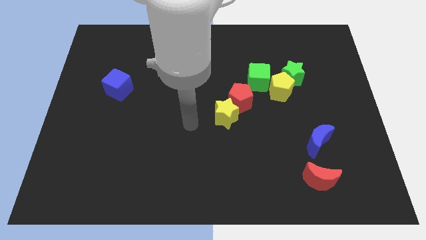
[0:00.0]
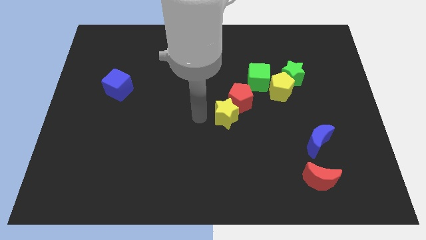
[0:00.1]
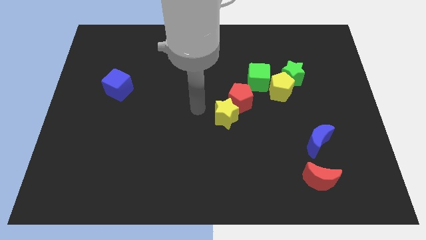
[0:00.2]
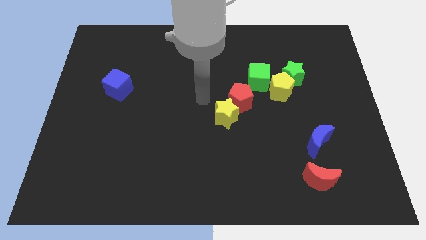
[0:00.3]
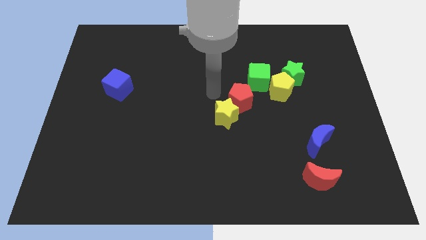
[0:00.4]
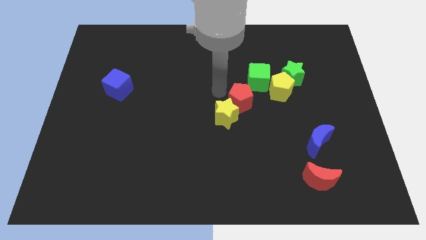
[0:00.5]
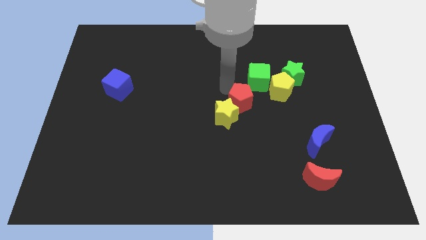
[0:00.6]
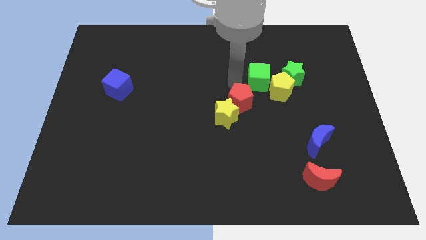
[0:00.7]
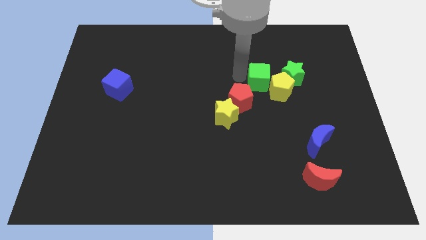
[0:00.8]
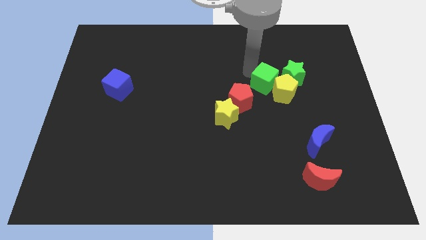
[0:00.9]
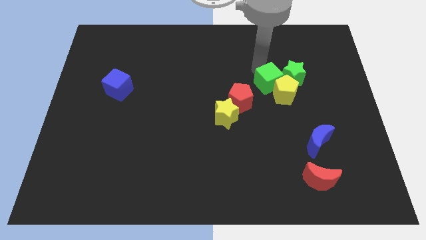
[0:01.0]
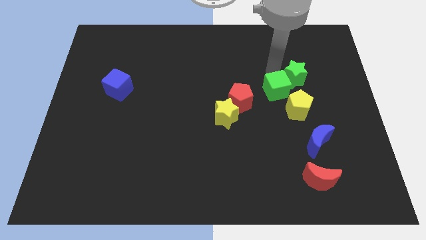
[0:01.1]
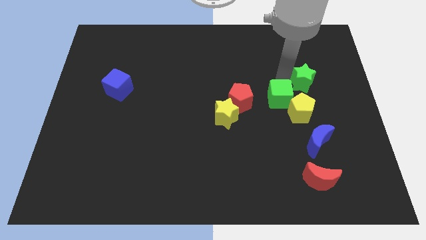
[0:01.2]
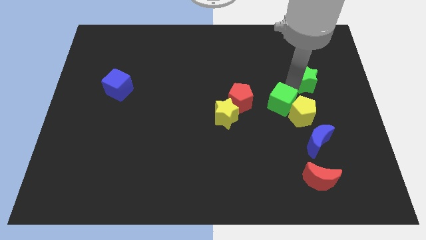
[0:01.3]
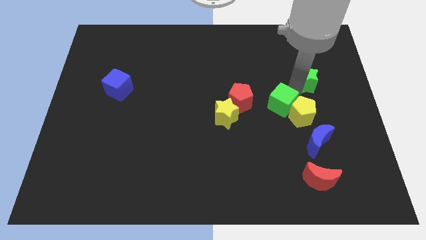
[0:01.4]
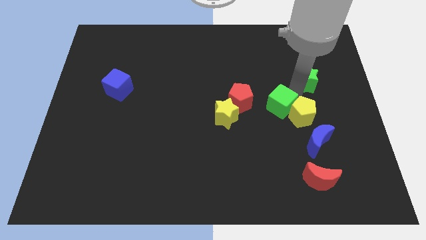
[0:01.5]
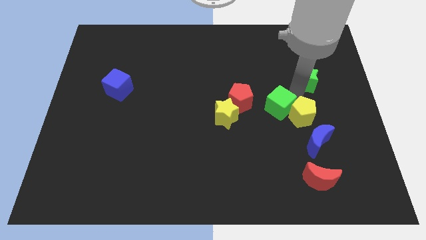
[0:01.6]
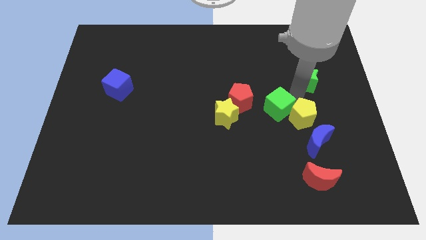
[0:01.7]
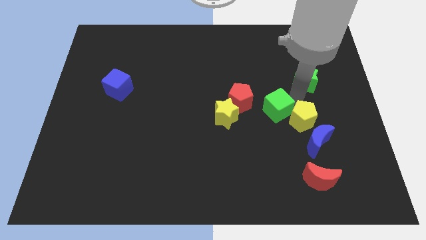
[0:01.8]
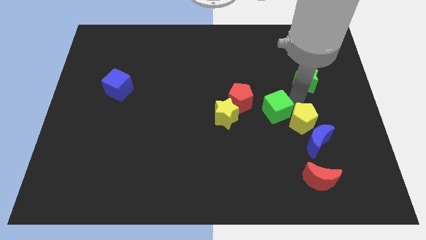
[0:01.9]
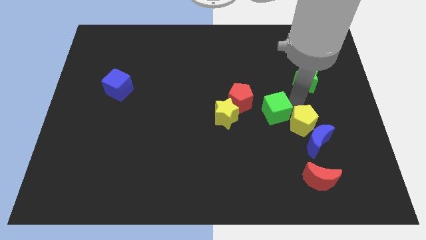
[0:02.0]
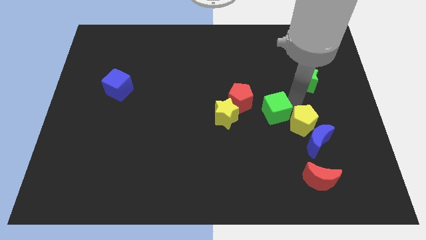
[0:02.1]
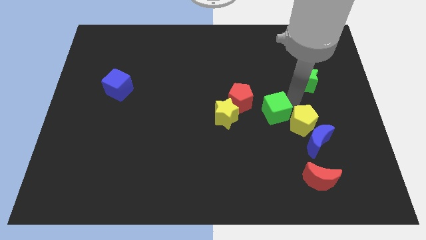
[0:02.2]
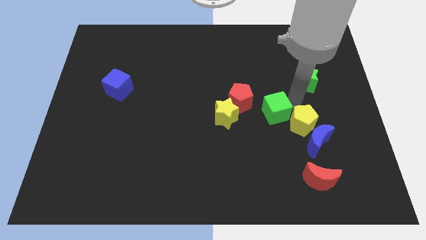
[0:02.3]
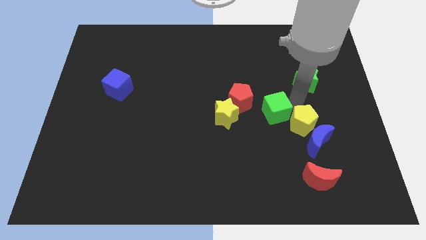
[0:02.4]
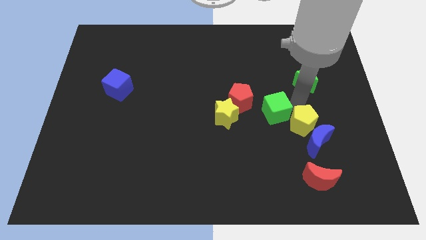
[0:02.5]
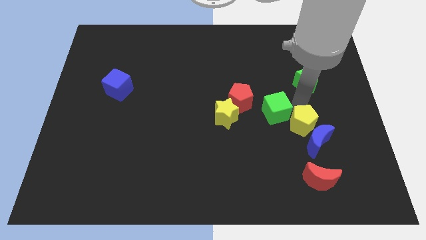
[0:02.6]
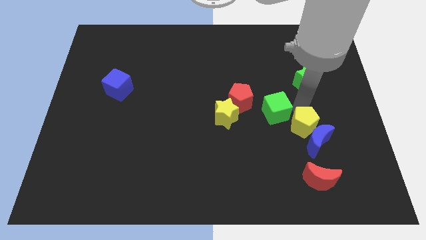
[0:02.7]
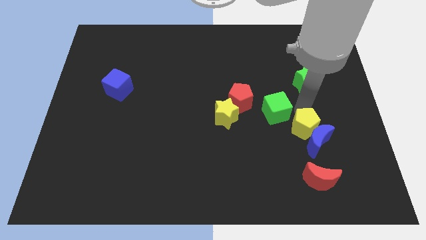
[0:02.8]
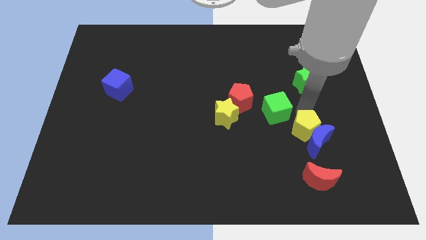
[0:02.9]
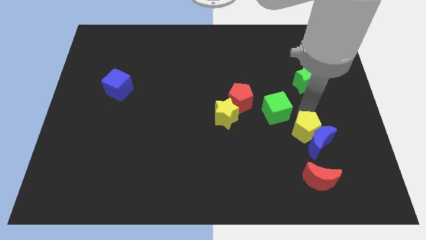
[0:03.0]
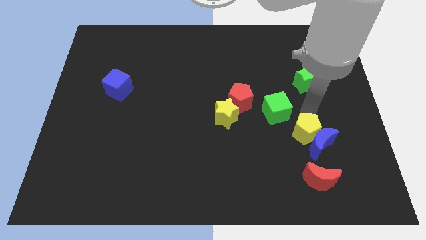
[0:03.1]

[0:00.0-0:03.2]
pull the yellow pentagon apart from the green star and green cube

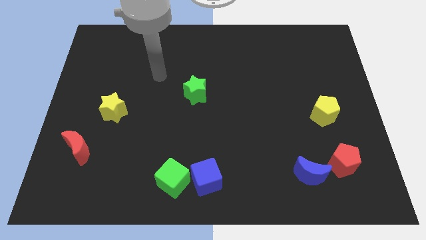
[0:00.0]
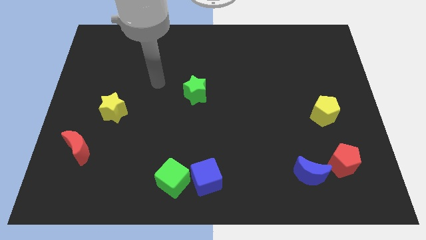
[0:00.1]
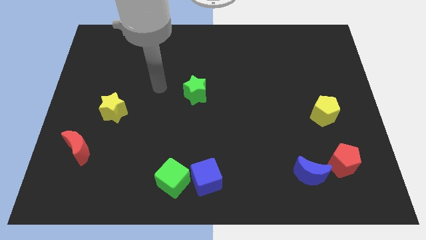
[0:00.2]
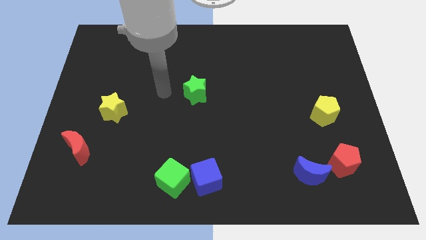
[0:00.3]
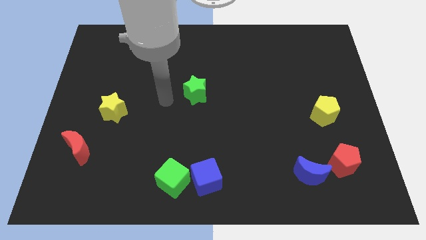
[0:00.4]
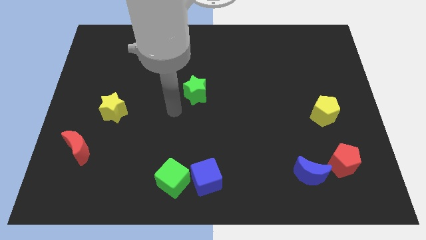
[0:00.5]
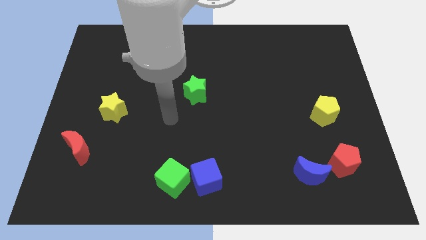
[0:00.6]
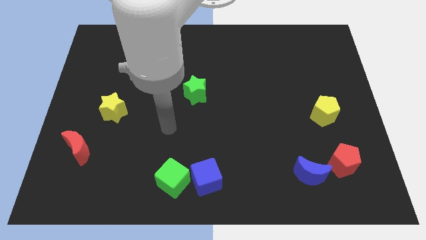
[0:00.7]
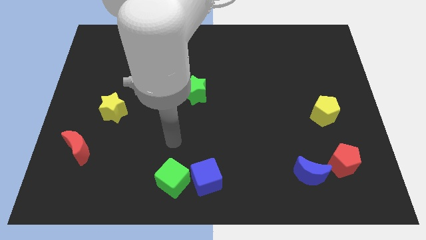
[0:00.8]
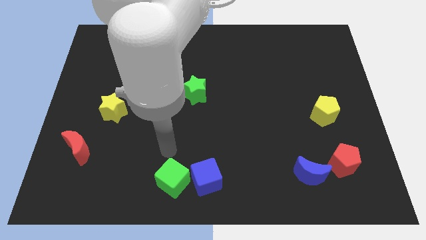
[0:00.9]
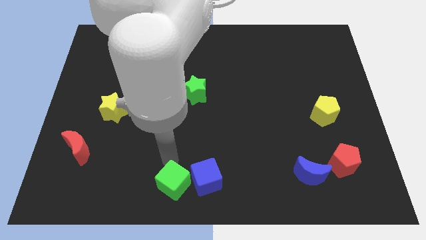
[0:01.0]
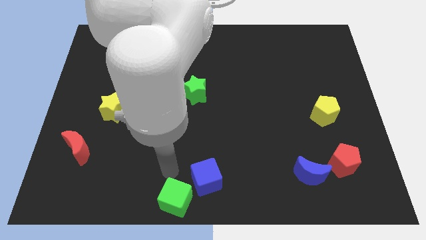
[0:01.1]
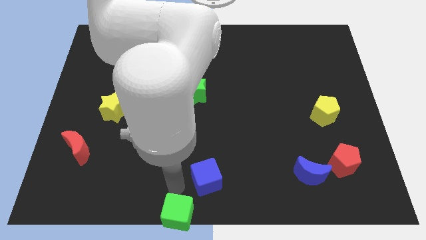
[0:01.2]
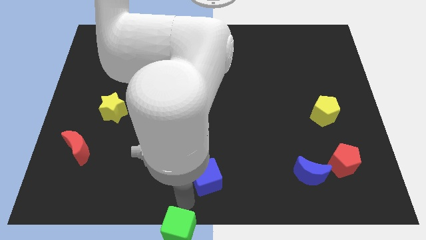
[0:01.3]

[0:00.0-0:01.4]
separate the blue cube from the green cube

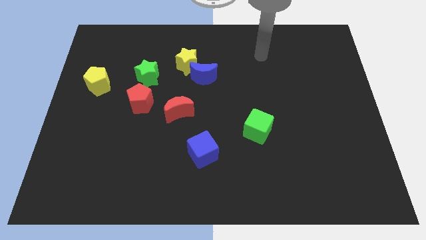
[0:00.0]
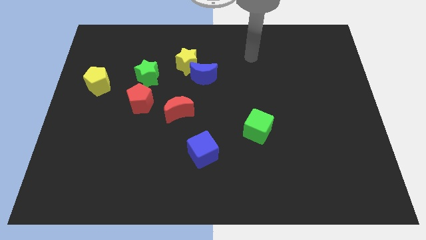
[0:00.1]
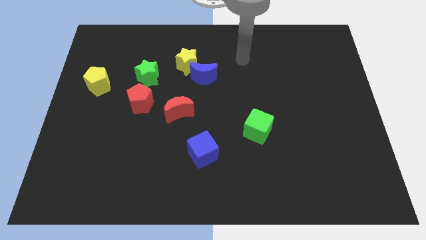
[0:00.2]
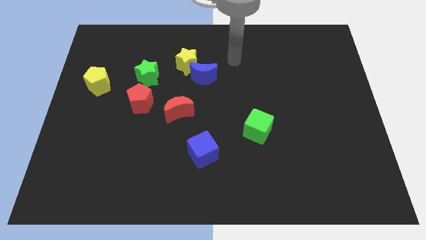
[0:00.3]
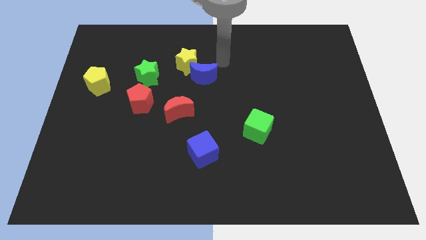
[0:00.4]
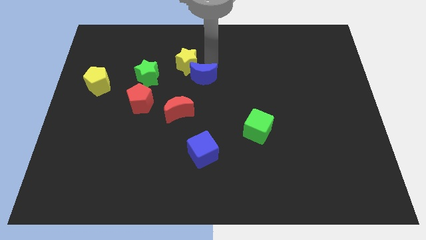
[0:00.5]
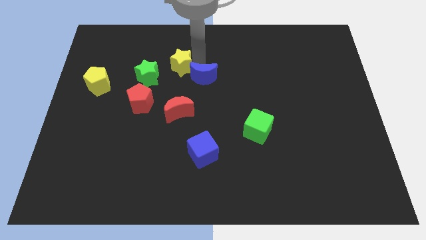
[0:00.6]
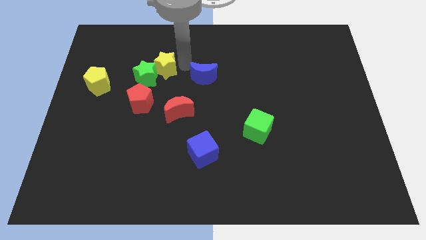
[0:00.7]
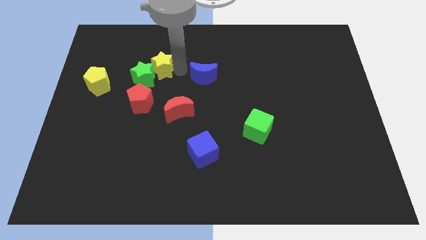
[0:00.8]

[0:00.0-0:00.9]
move the blue moon away from the yellow star

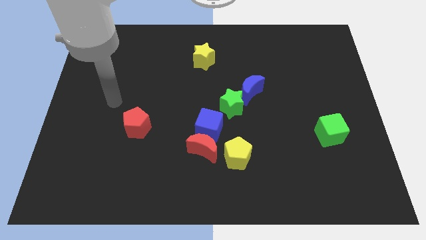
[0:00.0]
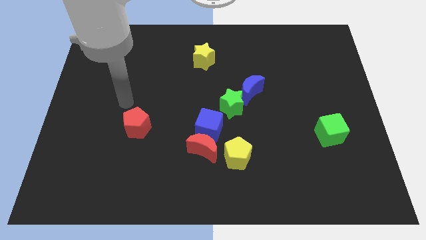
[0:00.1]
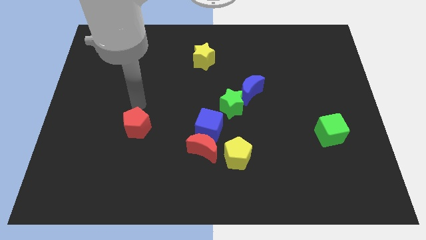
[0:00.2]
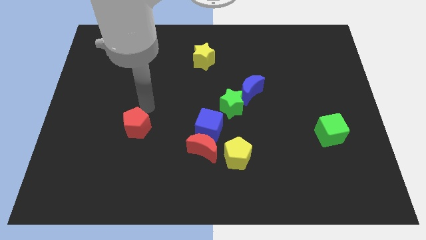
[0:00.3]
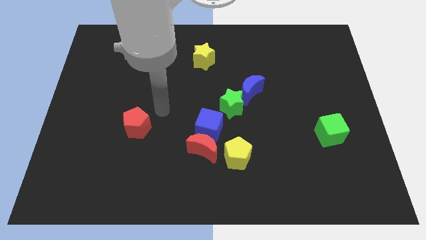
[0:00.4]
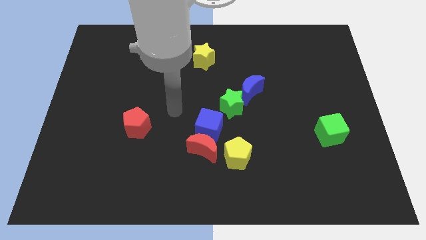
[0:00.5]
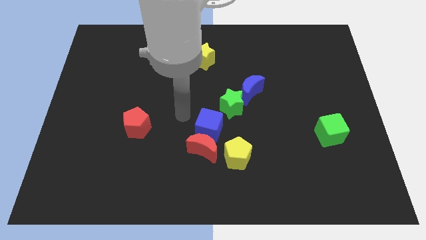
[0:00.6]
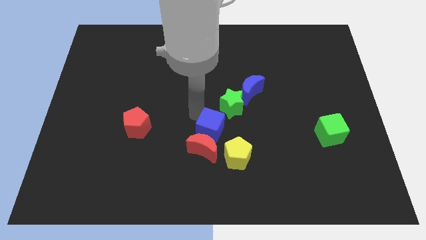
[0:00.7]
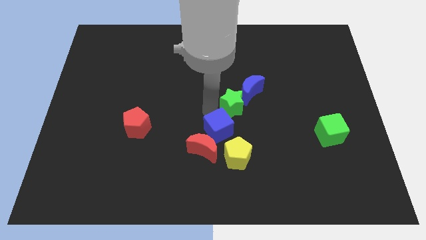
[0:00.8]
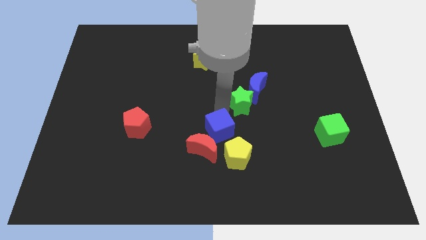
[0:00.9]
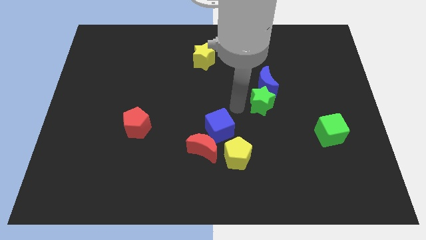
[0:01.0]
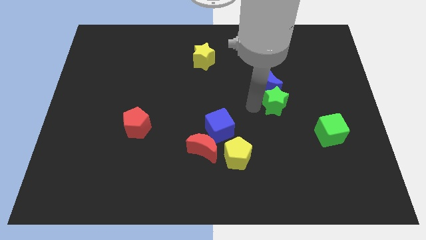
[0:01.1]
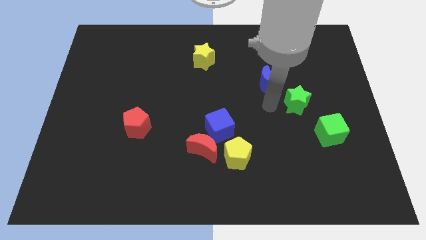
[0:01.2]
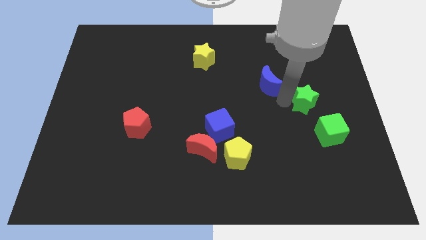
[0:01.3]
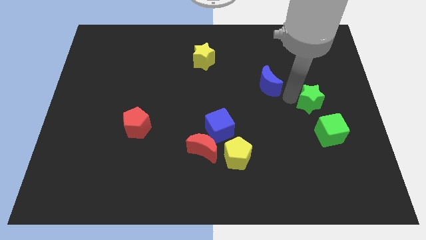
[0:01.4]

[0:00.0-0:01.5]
pull the blue moon apart from the green star

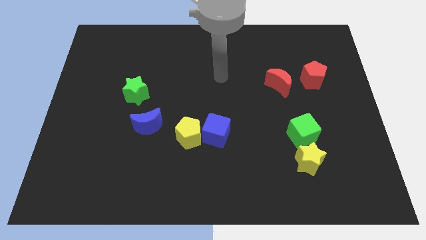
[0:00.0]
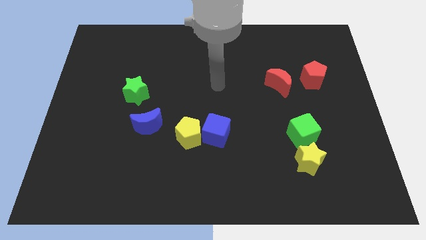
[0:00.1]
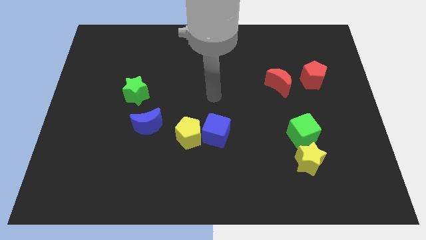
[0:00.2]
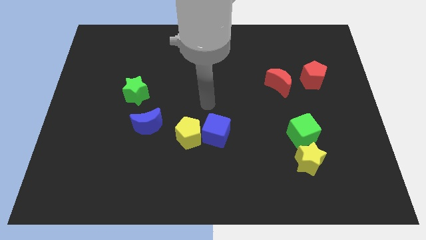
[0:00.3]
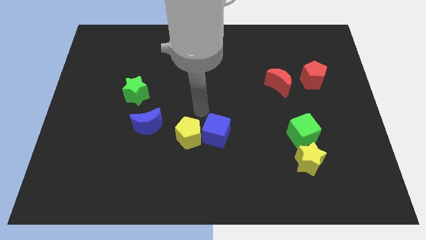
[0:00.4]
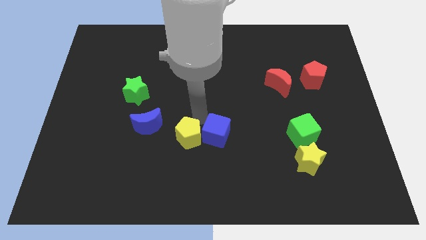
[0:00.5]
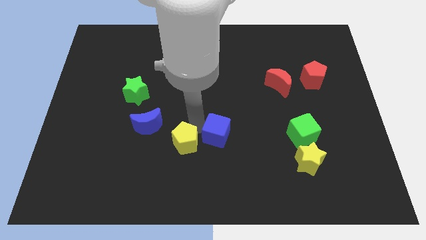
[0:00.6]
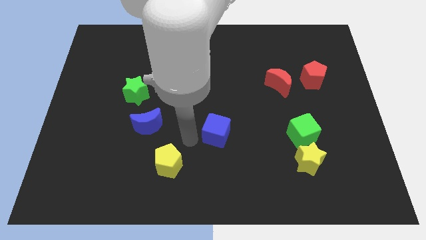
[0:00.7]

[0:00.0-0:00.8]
separate the blue cube from the yellow pentagon

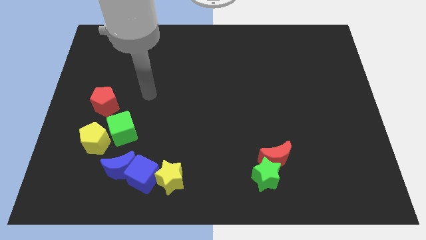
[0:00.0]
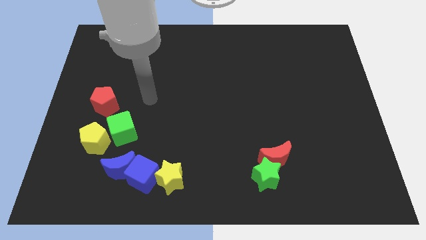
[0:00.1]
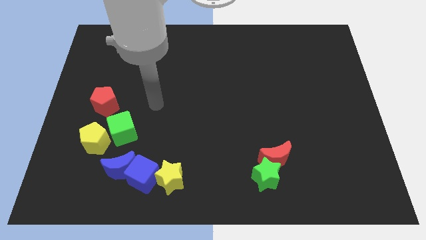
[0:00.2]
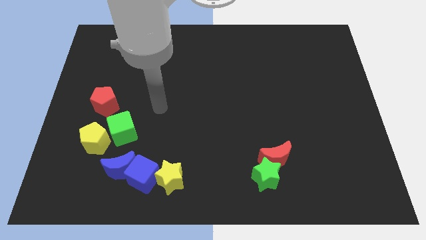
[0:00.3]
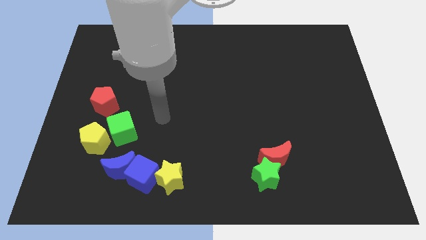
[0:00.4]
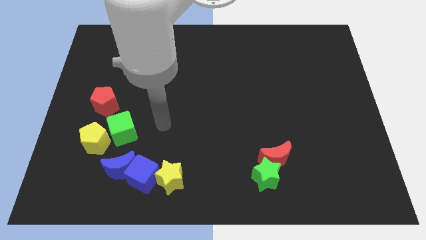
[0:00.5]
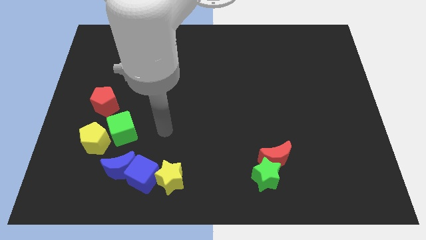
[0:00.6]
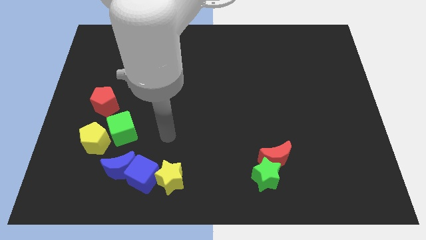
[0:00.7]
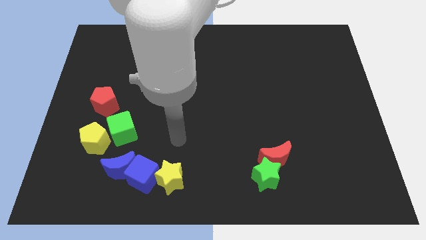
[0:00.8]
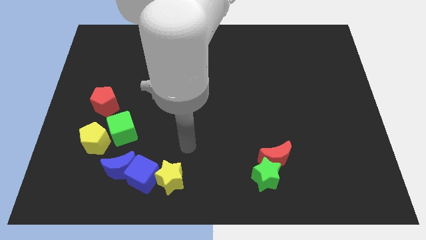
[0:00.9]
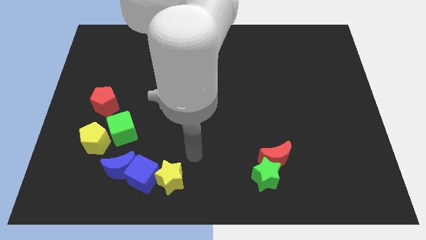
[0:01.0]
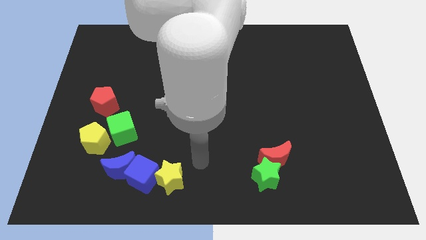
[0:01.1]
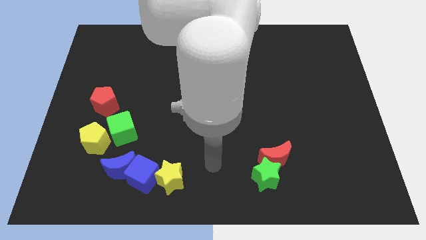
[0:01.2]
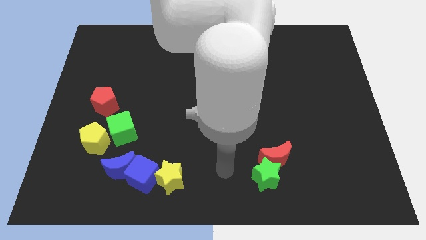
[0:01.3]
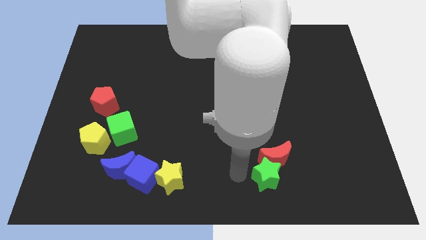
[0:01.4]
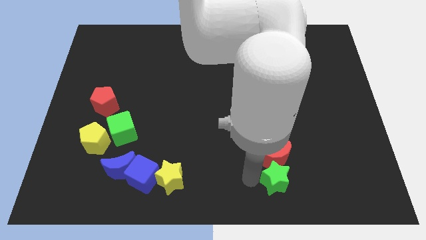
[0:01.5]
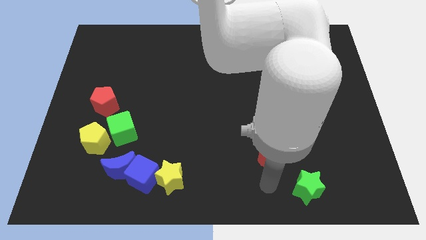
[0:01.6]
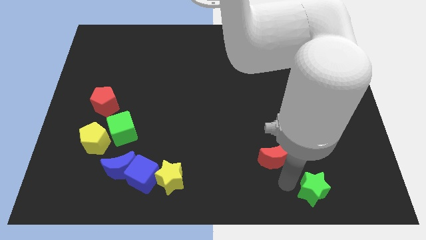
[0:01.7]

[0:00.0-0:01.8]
move the red moon away from the green star
